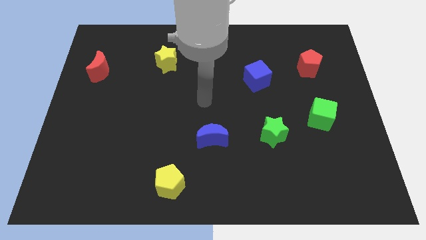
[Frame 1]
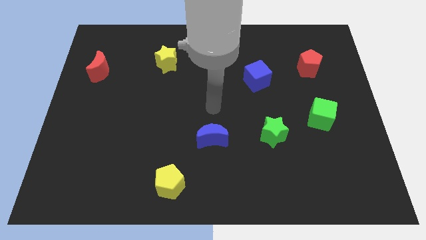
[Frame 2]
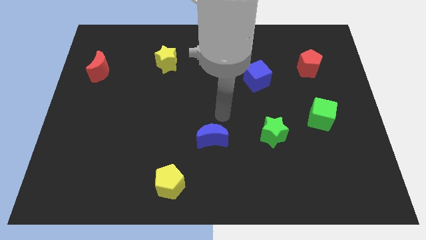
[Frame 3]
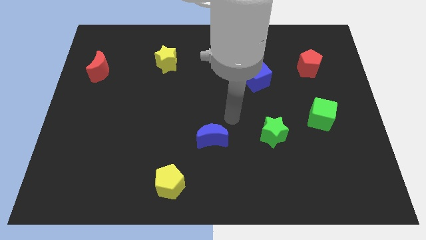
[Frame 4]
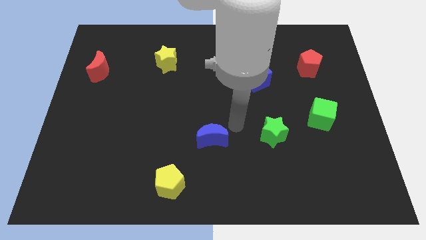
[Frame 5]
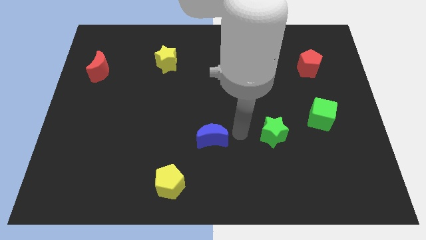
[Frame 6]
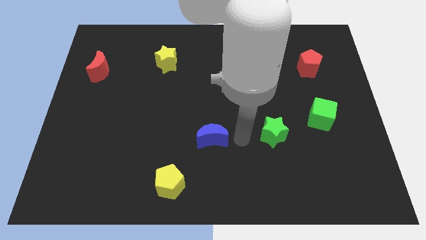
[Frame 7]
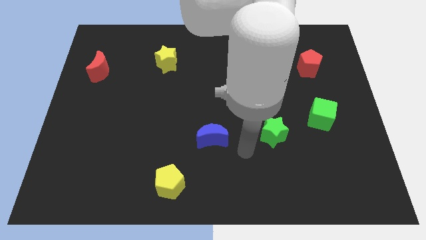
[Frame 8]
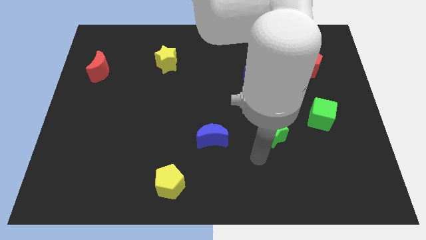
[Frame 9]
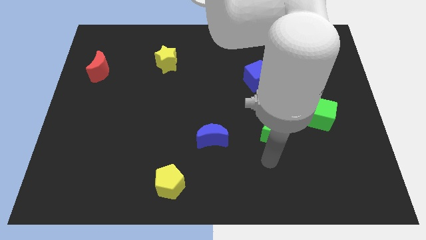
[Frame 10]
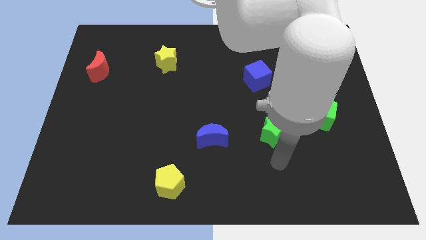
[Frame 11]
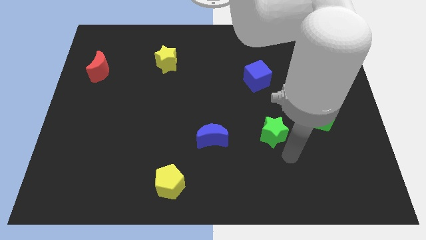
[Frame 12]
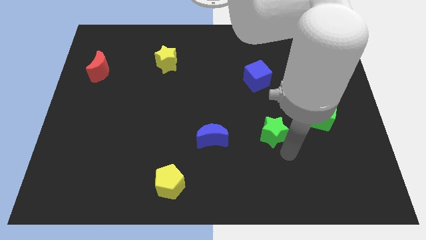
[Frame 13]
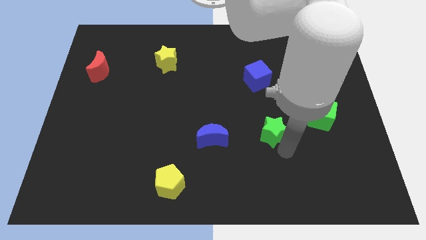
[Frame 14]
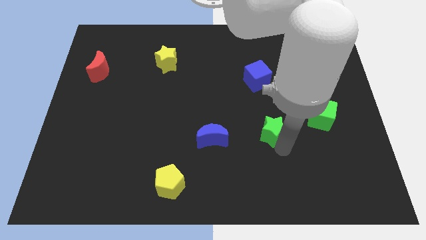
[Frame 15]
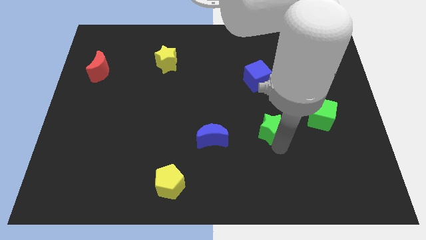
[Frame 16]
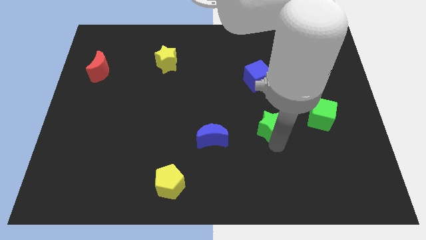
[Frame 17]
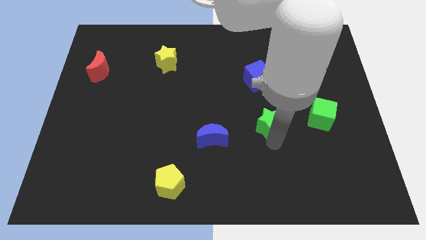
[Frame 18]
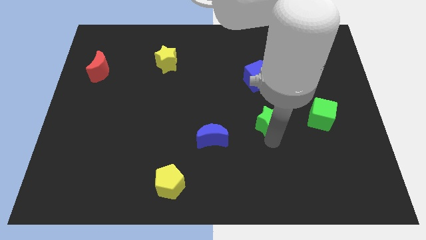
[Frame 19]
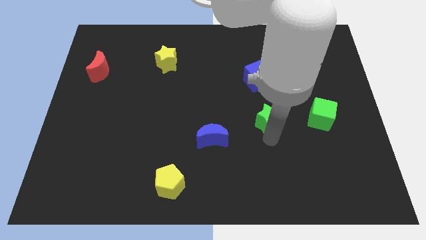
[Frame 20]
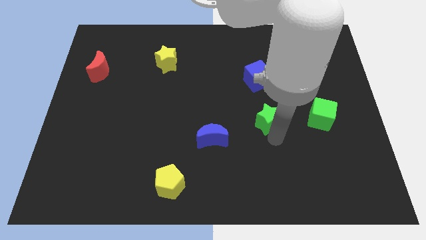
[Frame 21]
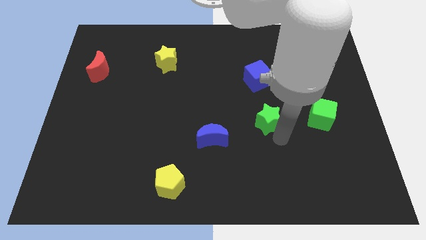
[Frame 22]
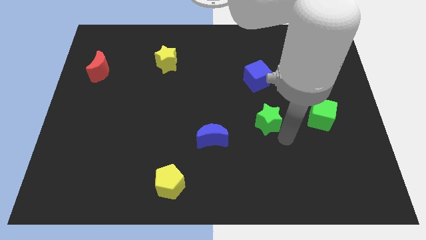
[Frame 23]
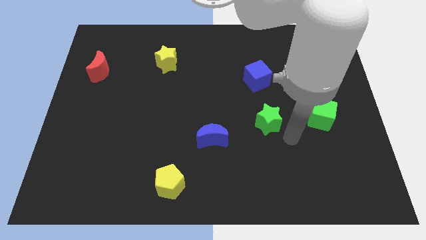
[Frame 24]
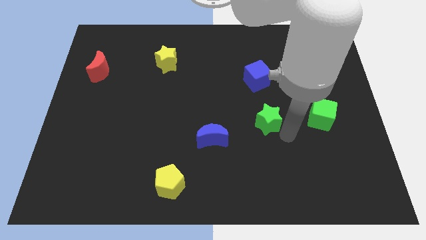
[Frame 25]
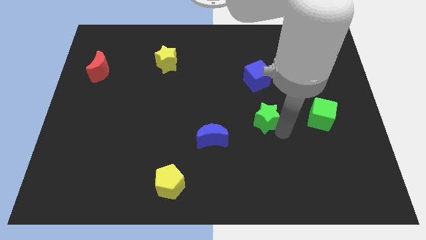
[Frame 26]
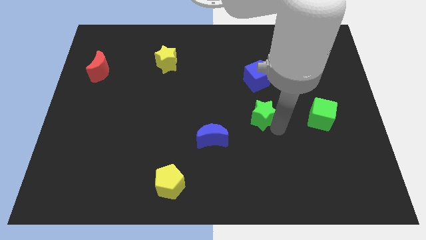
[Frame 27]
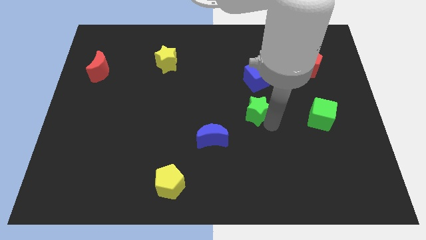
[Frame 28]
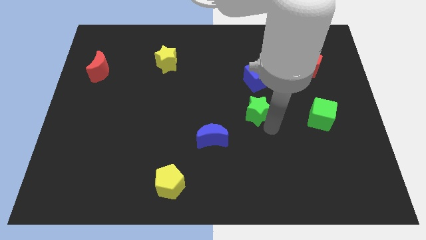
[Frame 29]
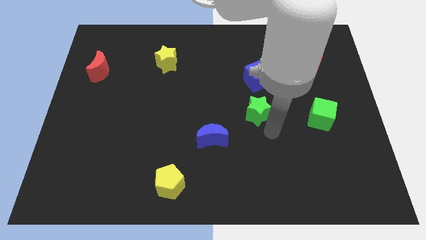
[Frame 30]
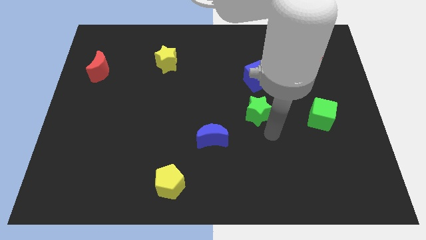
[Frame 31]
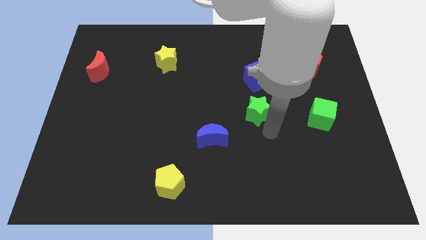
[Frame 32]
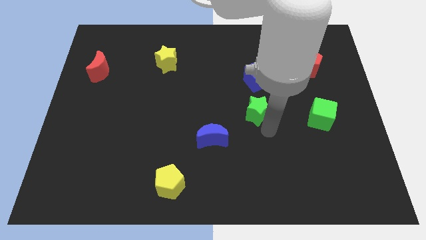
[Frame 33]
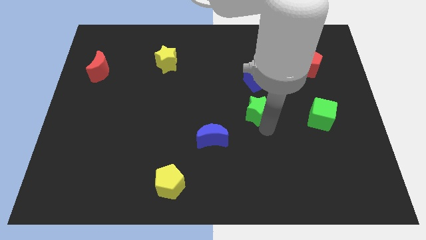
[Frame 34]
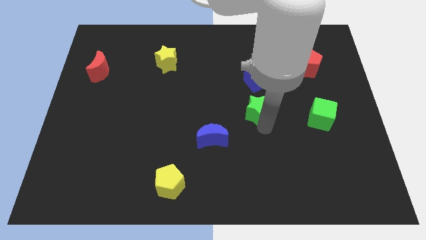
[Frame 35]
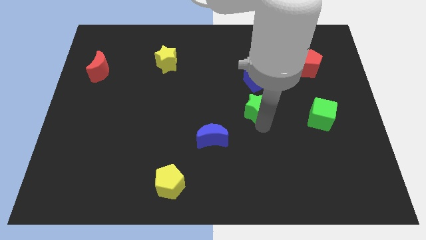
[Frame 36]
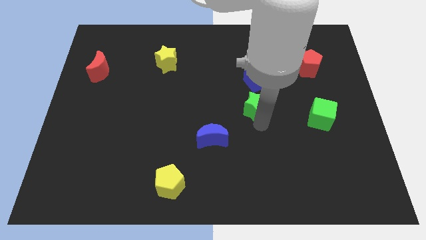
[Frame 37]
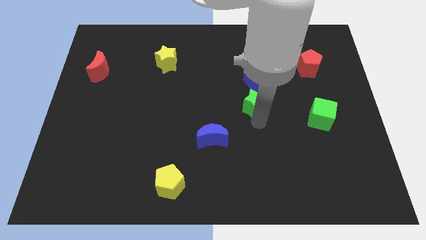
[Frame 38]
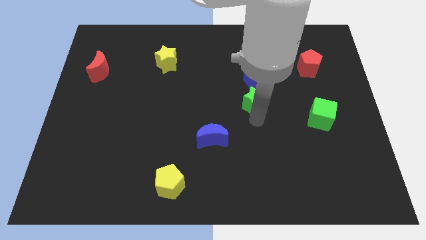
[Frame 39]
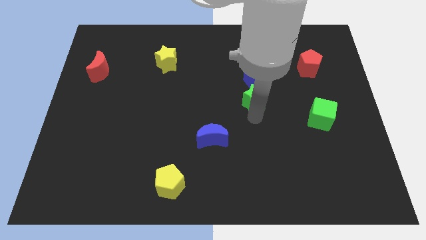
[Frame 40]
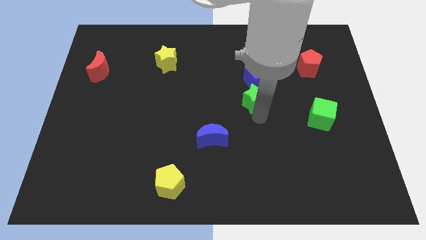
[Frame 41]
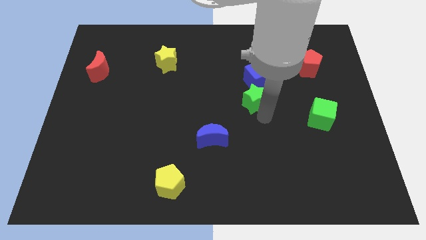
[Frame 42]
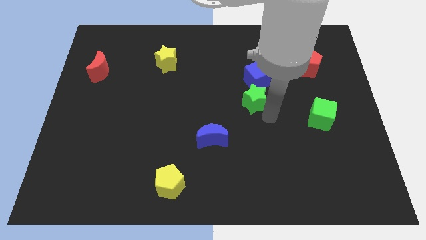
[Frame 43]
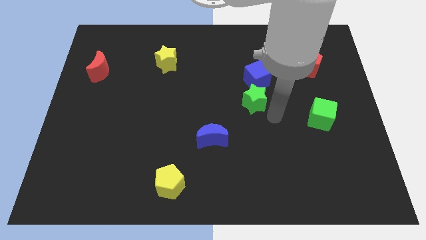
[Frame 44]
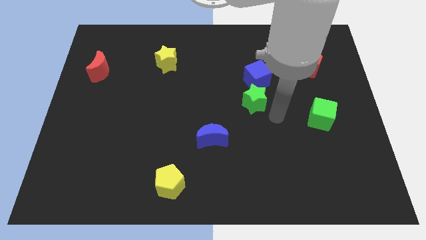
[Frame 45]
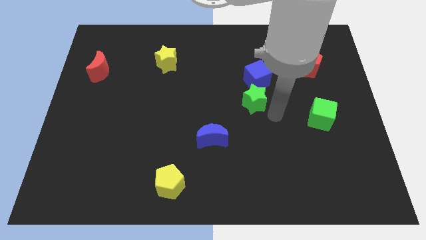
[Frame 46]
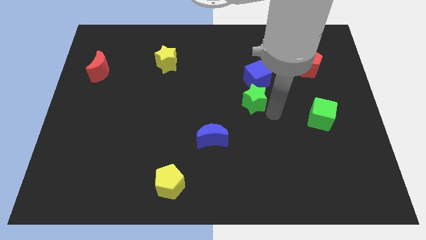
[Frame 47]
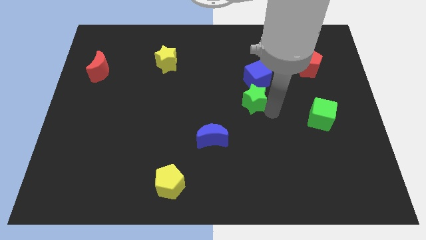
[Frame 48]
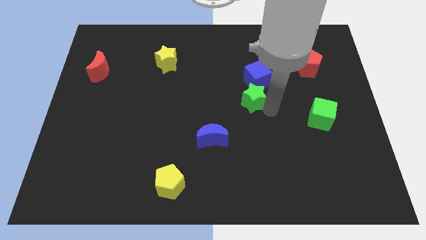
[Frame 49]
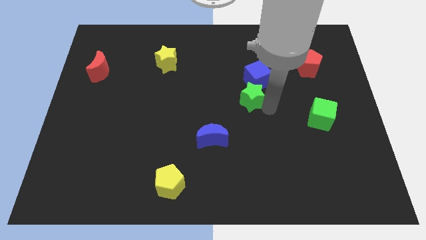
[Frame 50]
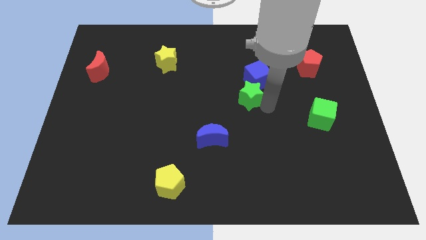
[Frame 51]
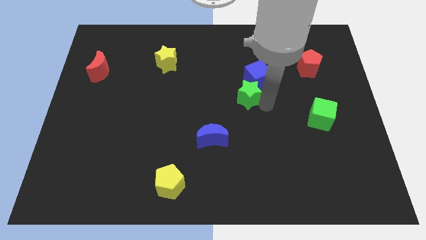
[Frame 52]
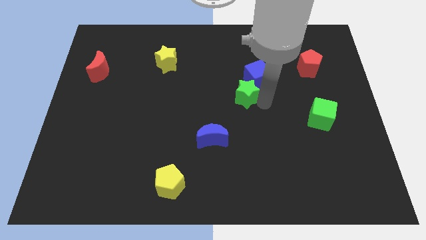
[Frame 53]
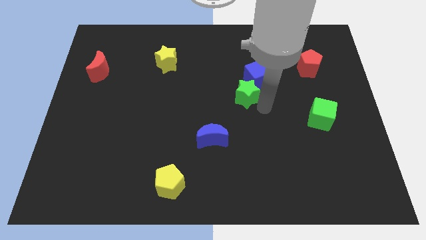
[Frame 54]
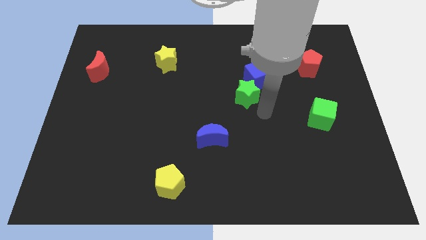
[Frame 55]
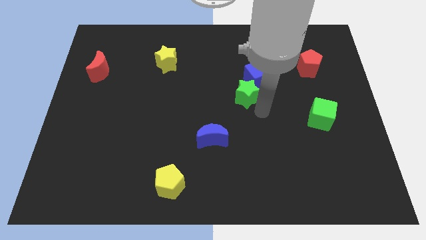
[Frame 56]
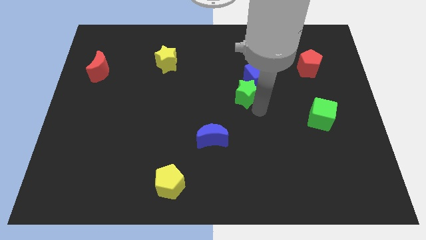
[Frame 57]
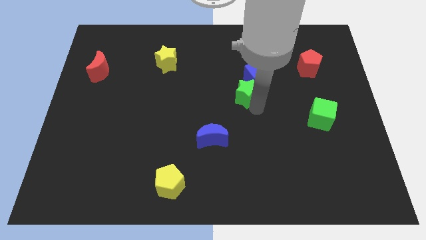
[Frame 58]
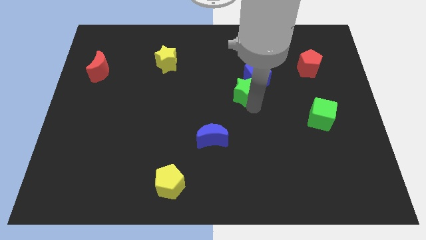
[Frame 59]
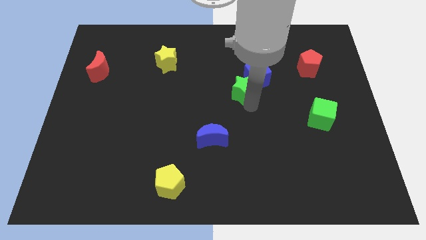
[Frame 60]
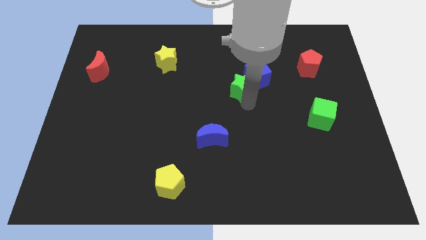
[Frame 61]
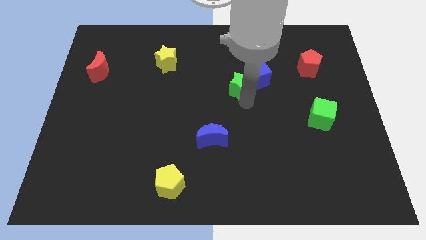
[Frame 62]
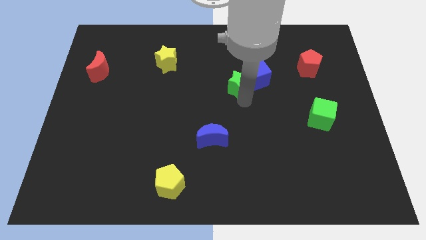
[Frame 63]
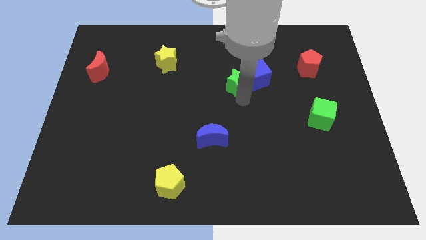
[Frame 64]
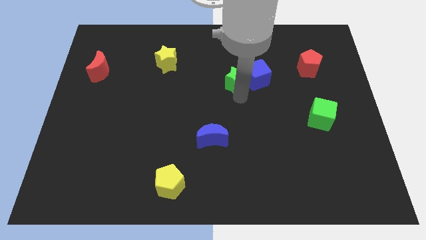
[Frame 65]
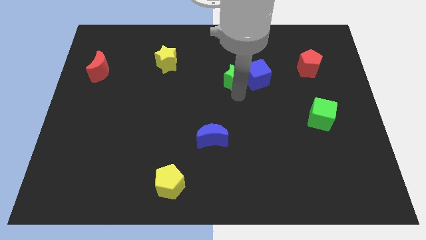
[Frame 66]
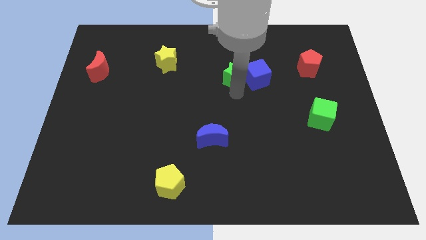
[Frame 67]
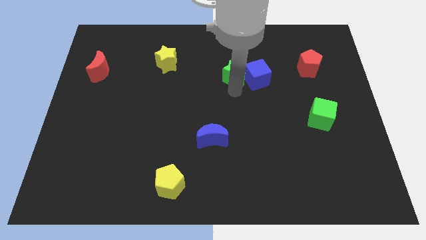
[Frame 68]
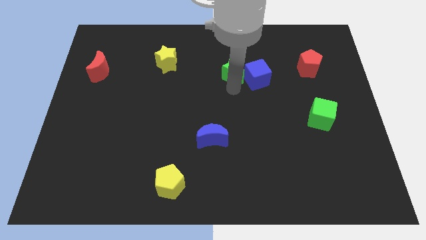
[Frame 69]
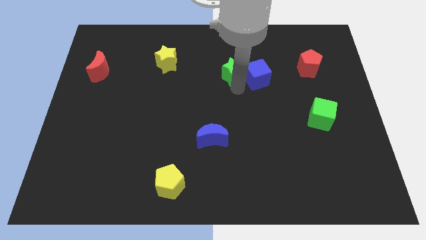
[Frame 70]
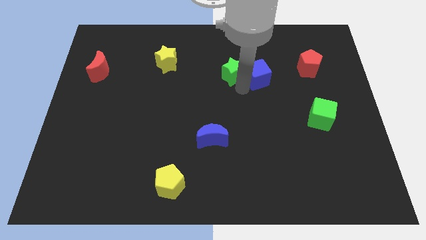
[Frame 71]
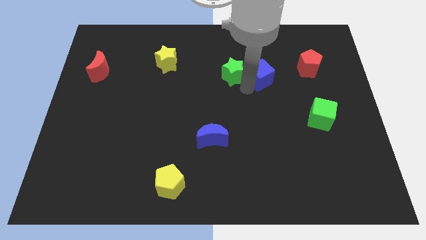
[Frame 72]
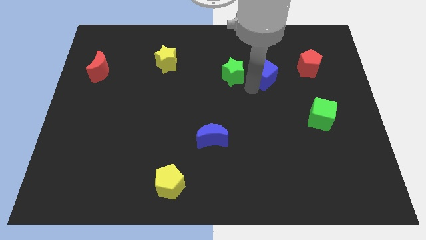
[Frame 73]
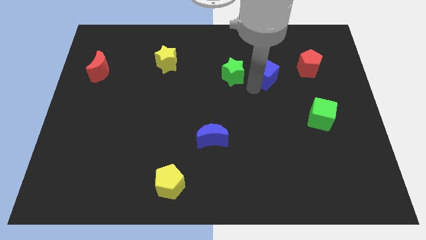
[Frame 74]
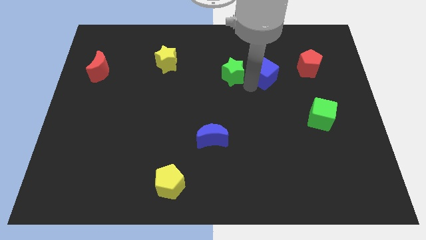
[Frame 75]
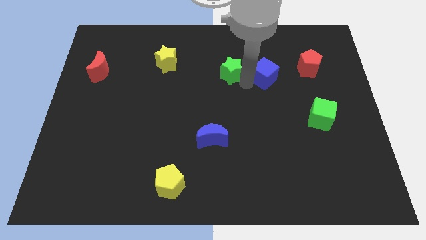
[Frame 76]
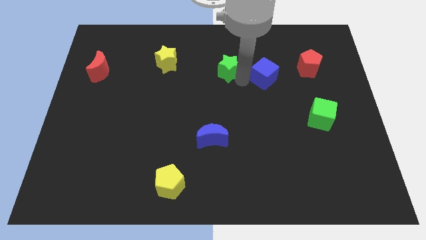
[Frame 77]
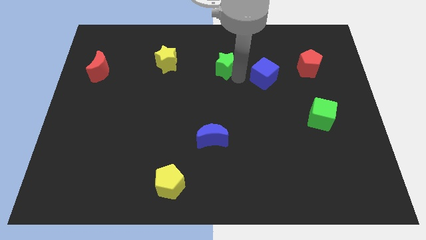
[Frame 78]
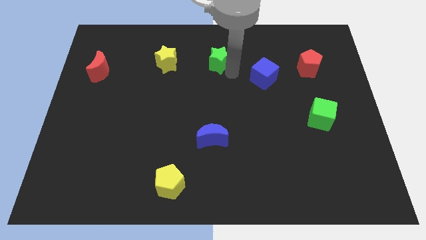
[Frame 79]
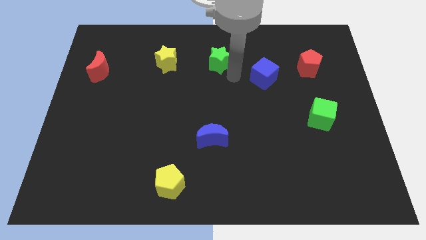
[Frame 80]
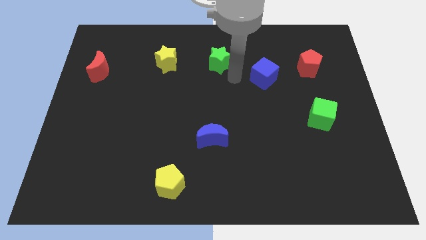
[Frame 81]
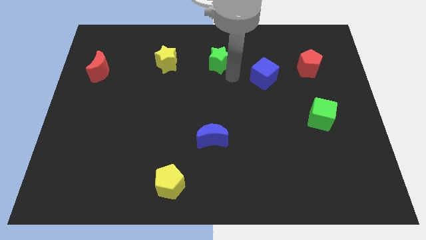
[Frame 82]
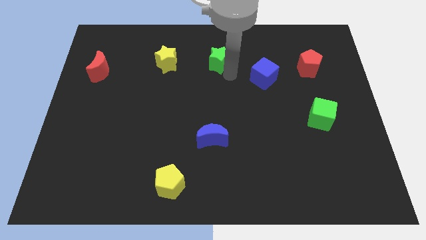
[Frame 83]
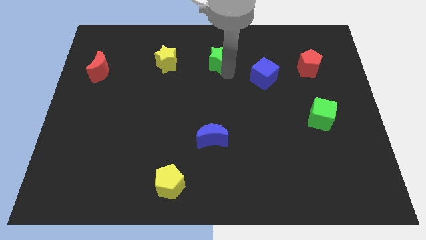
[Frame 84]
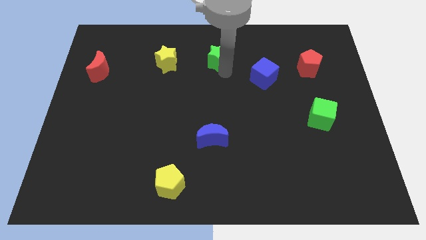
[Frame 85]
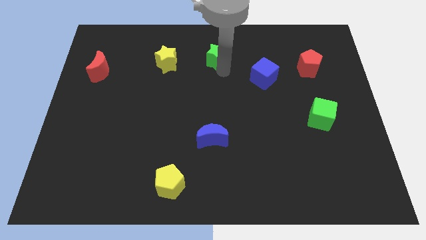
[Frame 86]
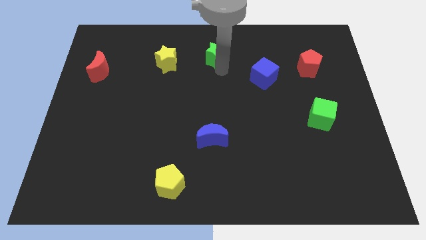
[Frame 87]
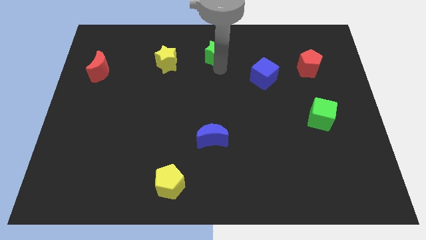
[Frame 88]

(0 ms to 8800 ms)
move the green star to the top
